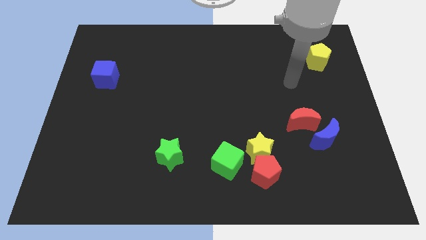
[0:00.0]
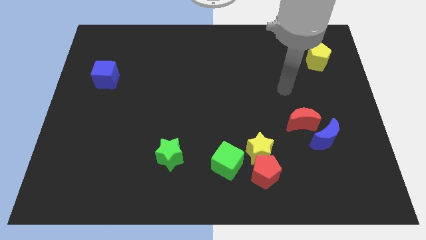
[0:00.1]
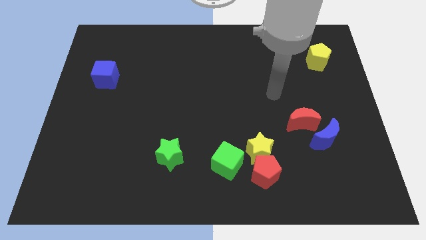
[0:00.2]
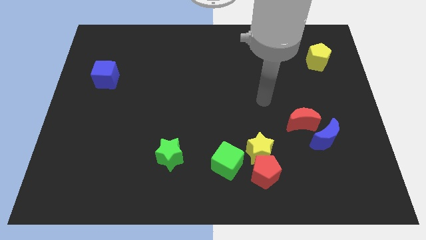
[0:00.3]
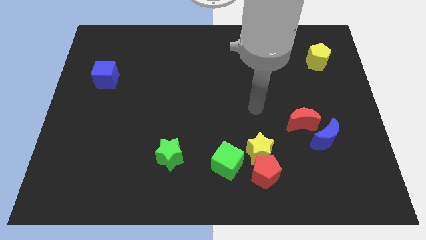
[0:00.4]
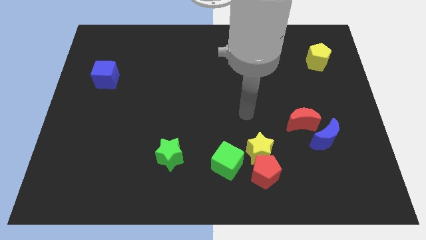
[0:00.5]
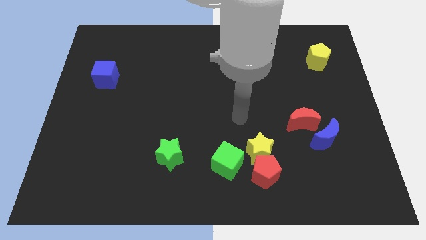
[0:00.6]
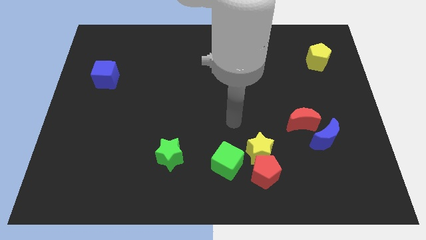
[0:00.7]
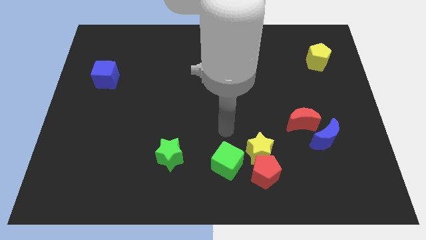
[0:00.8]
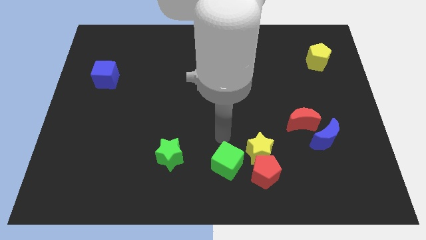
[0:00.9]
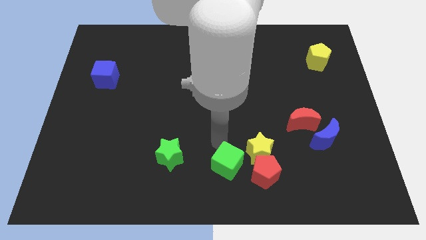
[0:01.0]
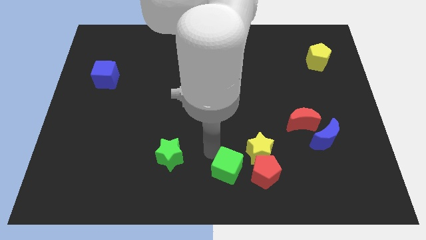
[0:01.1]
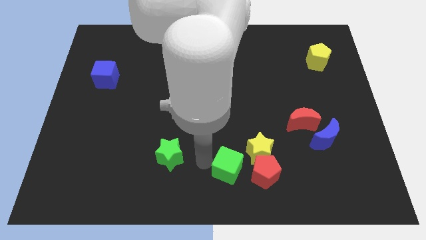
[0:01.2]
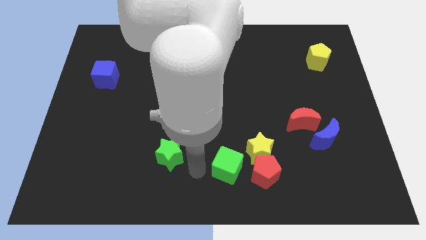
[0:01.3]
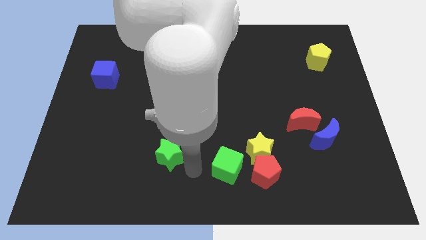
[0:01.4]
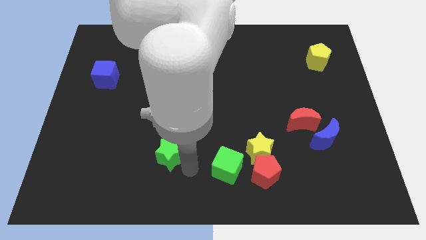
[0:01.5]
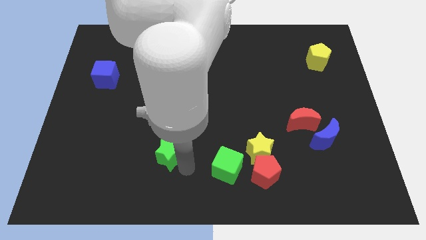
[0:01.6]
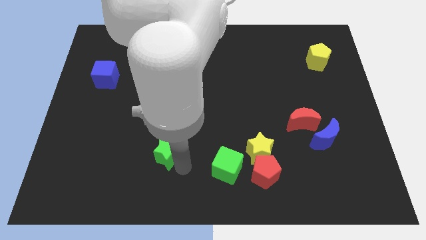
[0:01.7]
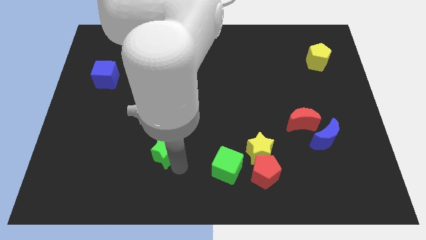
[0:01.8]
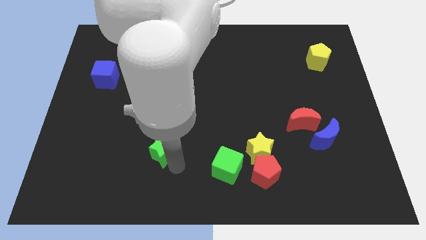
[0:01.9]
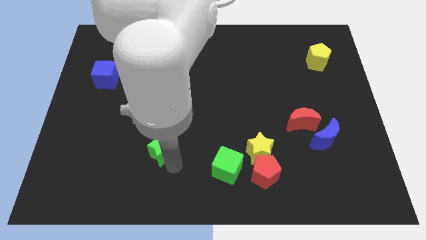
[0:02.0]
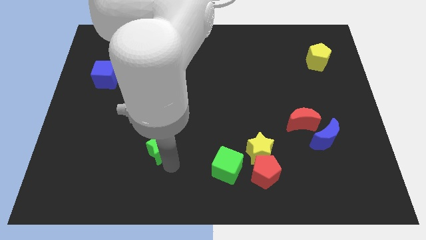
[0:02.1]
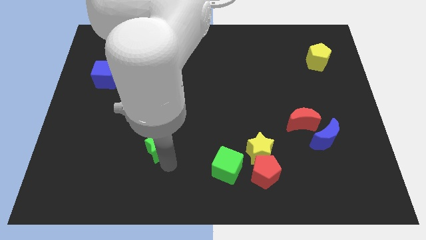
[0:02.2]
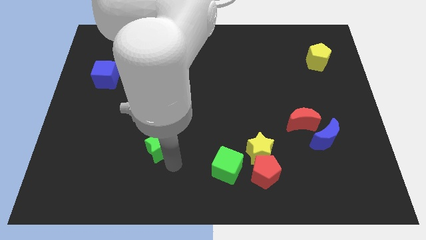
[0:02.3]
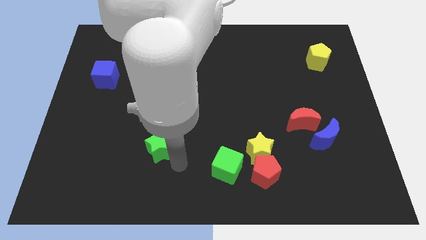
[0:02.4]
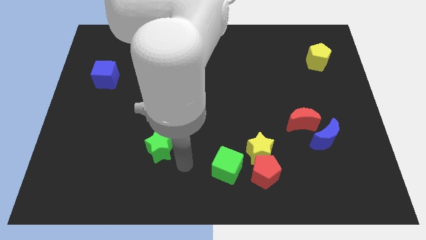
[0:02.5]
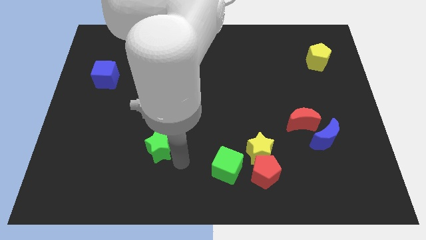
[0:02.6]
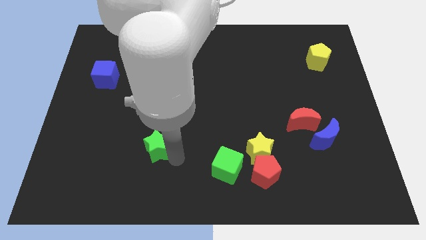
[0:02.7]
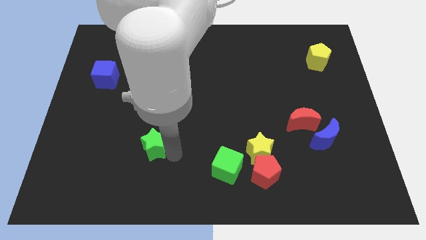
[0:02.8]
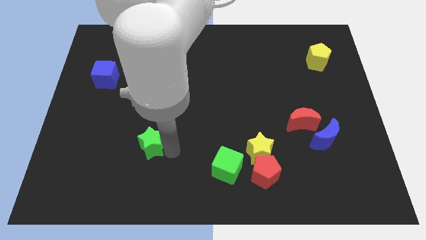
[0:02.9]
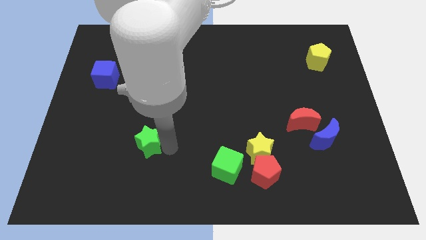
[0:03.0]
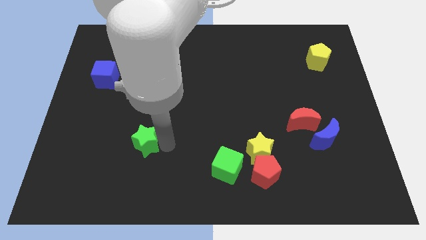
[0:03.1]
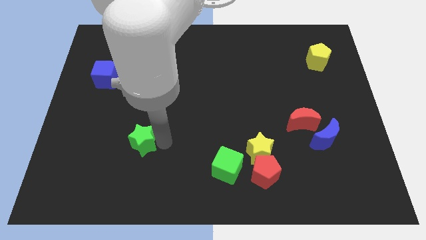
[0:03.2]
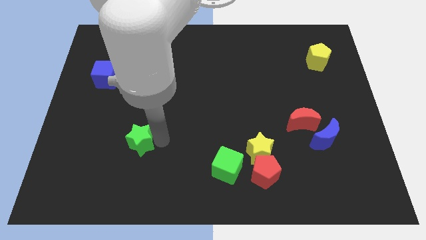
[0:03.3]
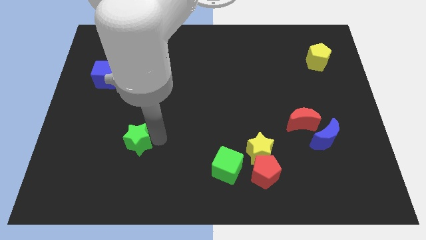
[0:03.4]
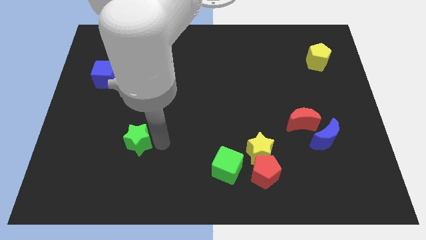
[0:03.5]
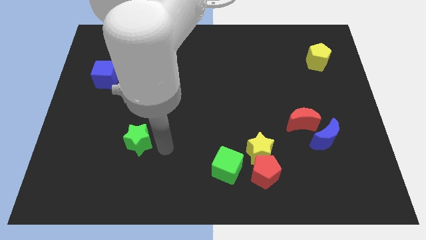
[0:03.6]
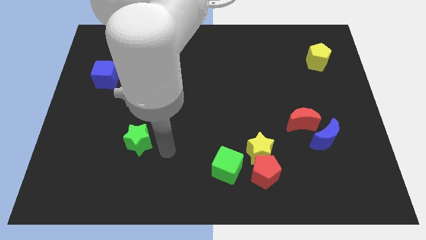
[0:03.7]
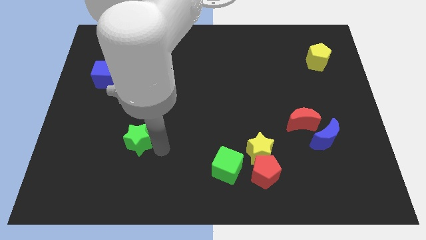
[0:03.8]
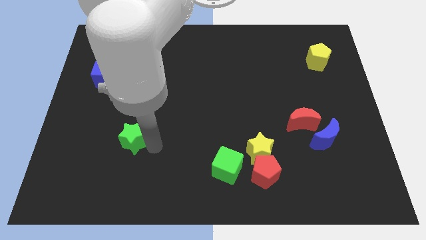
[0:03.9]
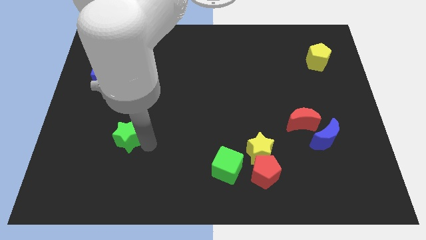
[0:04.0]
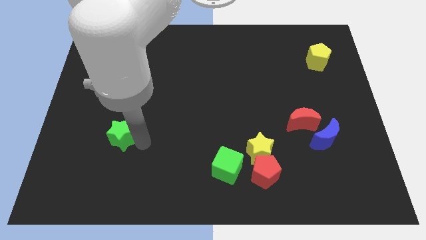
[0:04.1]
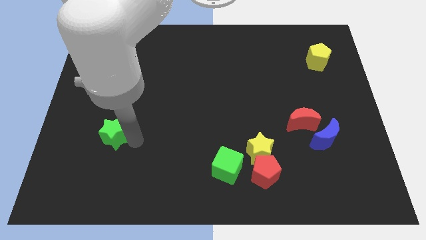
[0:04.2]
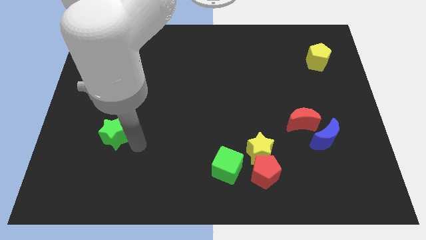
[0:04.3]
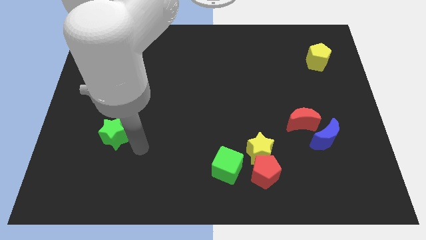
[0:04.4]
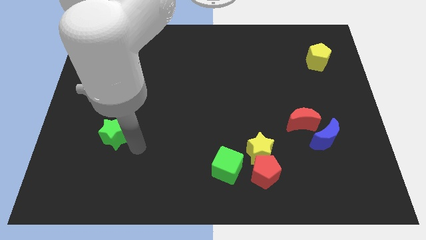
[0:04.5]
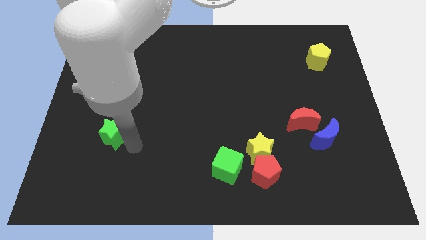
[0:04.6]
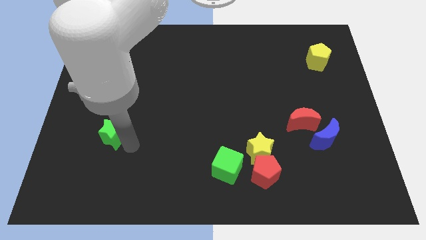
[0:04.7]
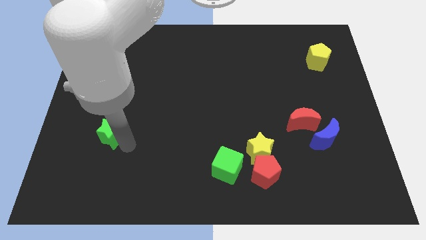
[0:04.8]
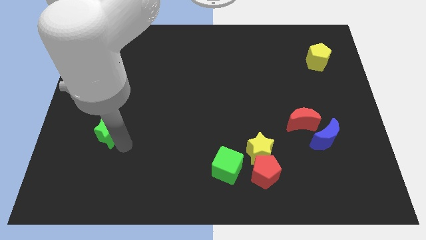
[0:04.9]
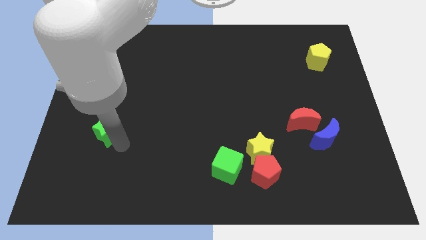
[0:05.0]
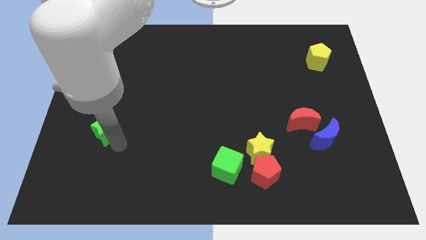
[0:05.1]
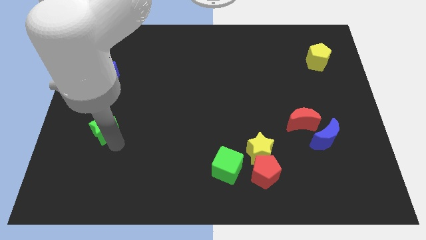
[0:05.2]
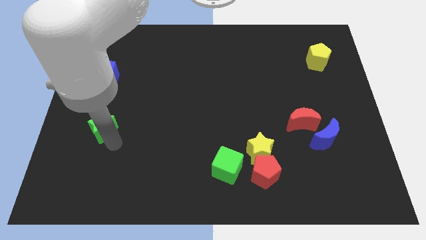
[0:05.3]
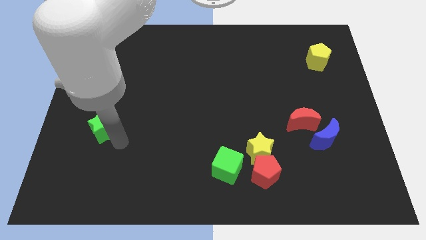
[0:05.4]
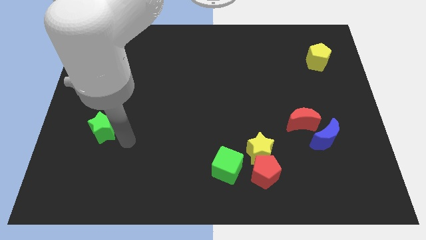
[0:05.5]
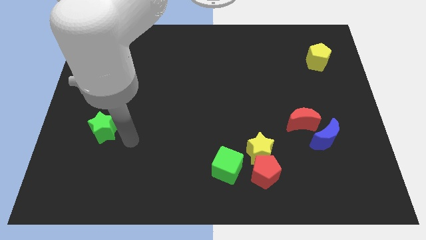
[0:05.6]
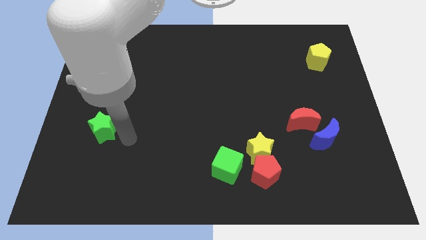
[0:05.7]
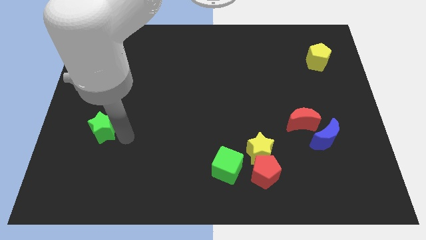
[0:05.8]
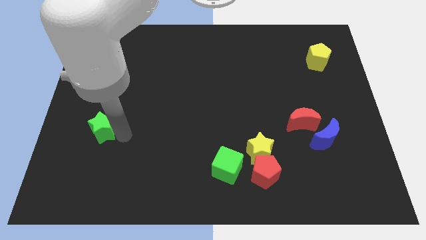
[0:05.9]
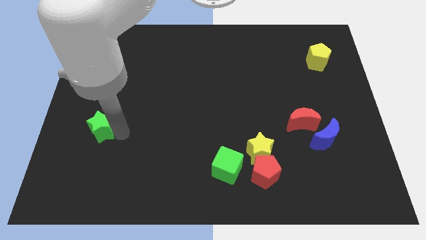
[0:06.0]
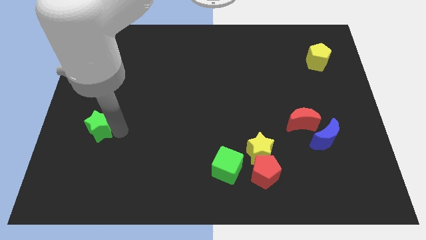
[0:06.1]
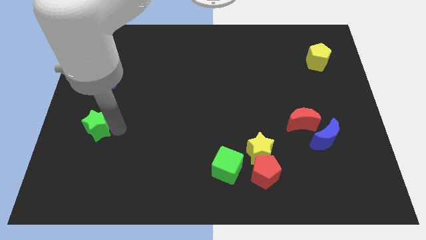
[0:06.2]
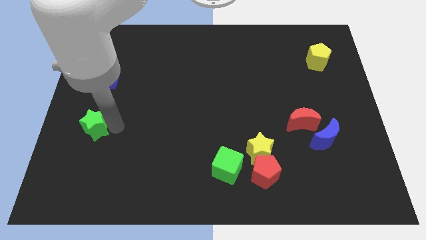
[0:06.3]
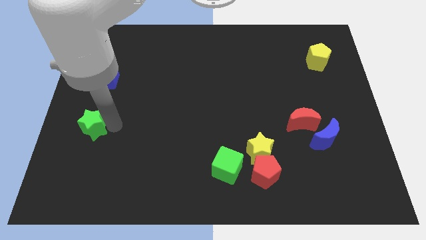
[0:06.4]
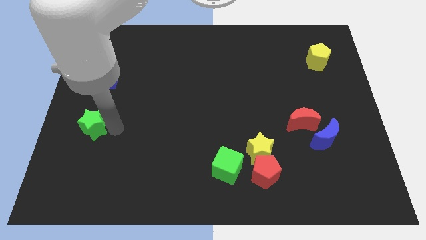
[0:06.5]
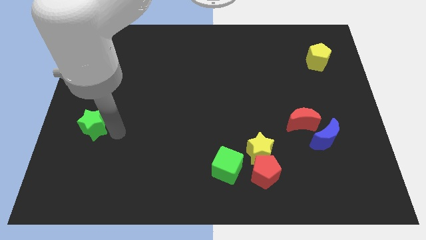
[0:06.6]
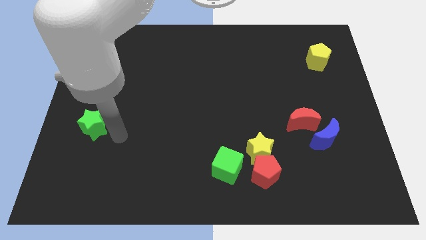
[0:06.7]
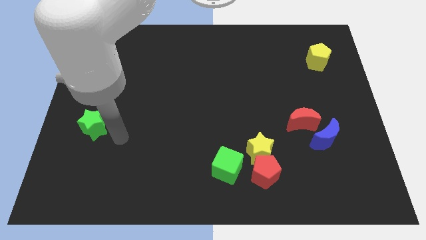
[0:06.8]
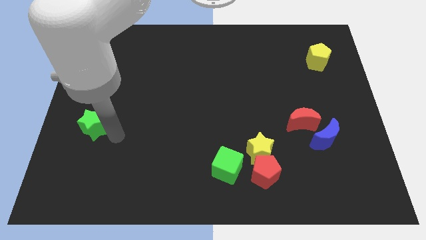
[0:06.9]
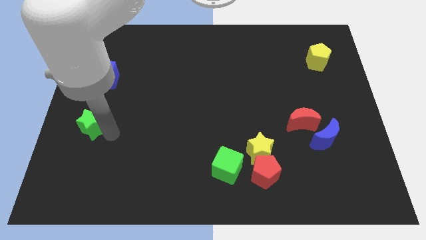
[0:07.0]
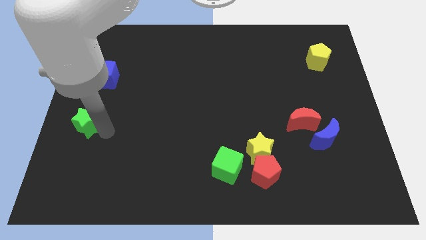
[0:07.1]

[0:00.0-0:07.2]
move the green star to the center left
